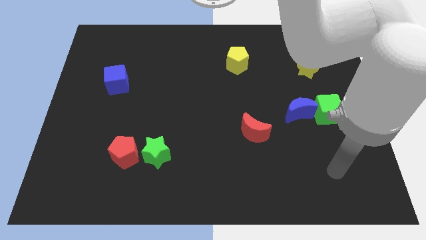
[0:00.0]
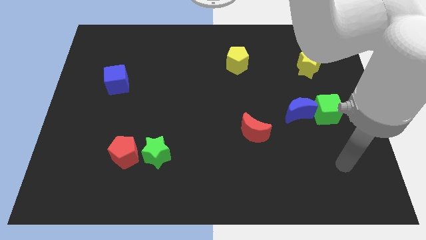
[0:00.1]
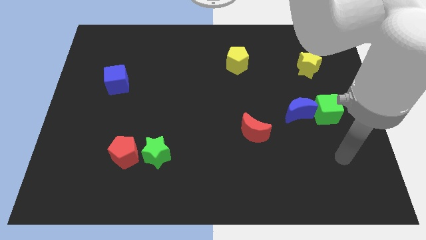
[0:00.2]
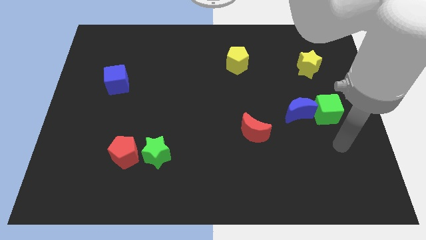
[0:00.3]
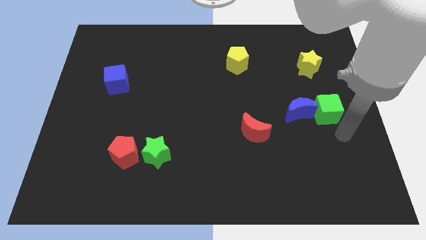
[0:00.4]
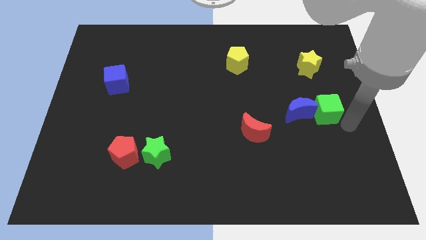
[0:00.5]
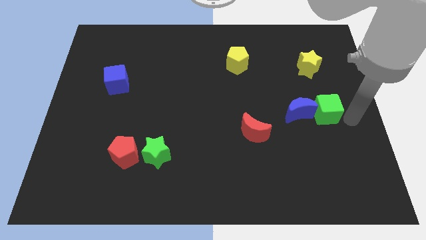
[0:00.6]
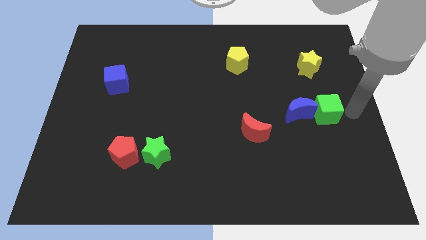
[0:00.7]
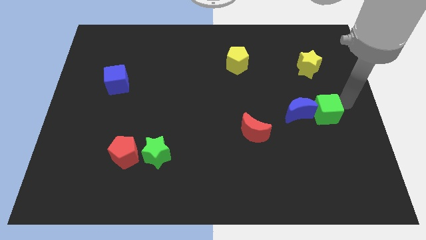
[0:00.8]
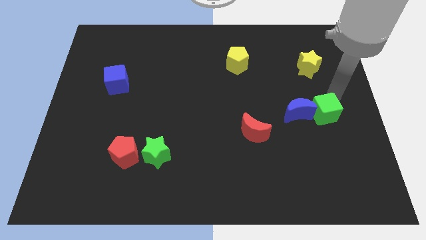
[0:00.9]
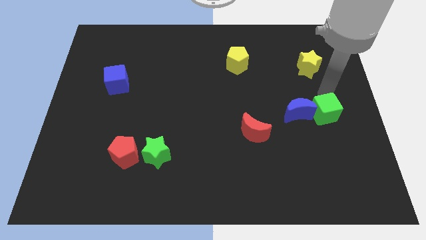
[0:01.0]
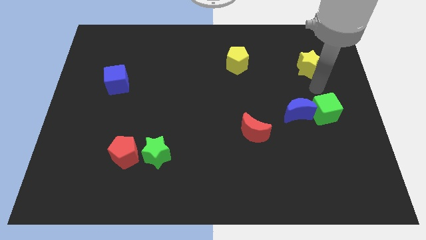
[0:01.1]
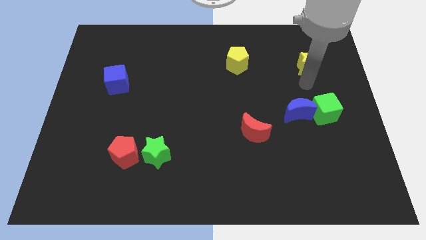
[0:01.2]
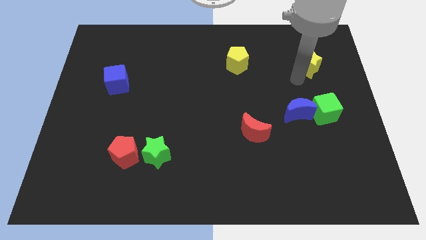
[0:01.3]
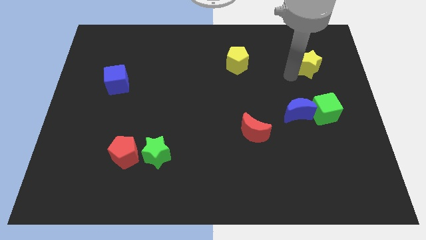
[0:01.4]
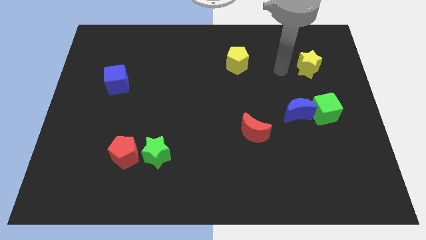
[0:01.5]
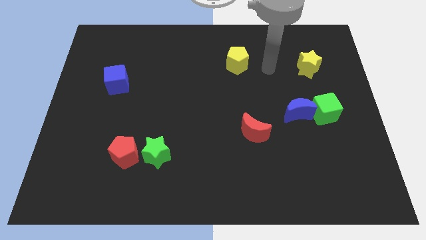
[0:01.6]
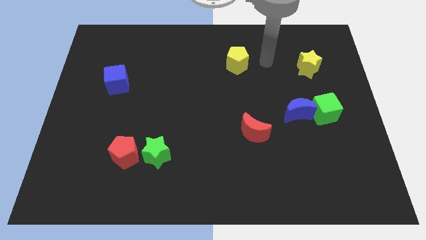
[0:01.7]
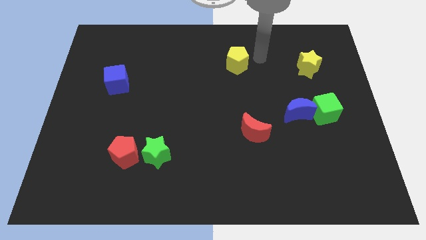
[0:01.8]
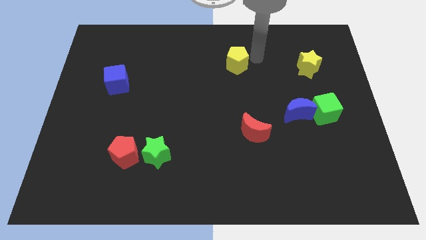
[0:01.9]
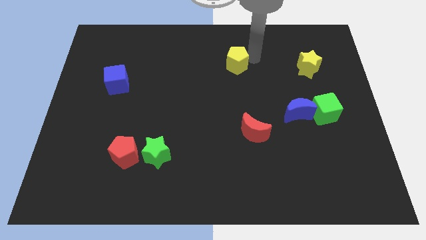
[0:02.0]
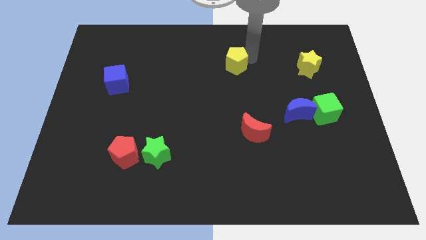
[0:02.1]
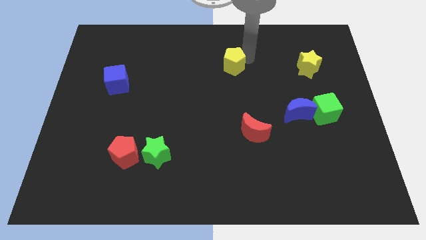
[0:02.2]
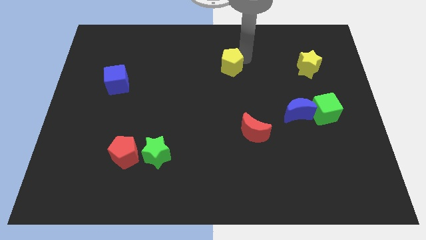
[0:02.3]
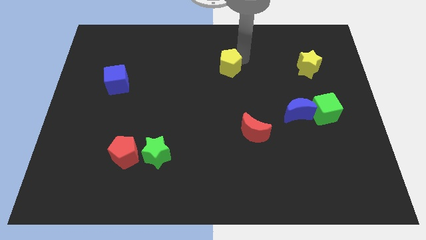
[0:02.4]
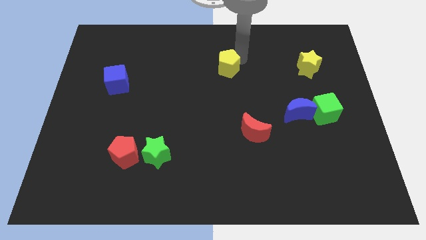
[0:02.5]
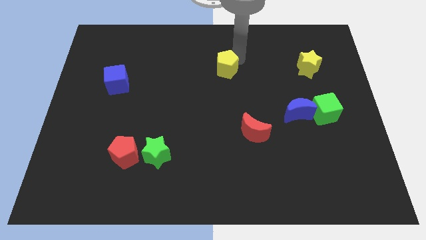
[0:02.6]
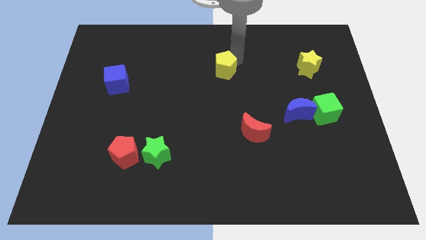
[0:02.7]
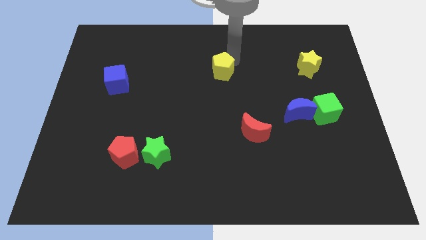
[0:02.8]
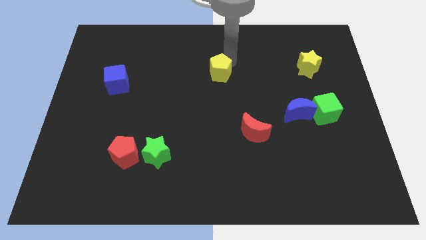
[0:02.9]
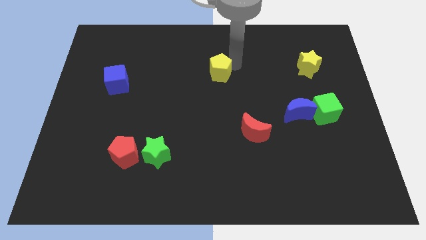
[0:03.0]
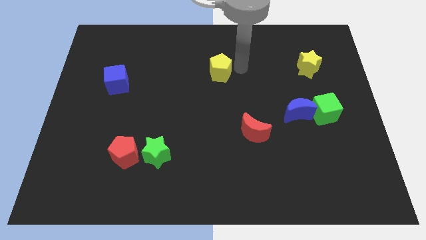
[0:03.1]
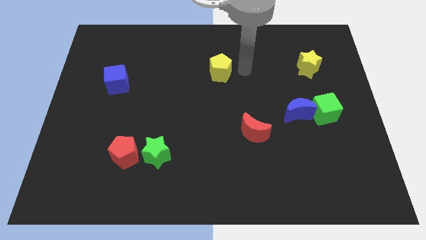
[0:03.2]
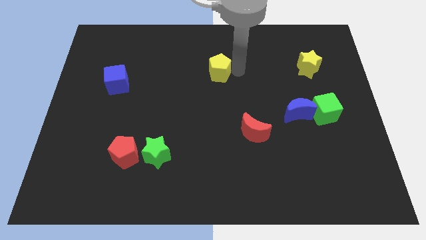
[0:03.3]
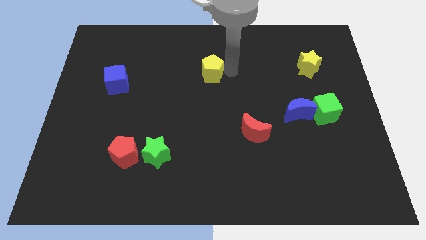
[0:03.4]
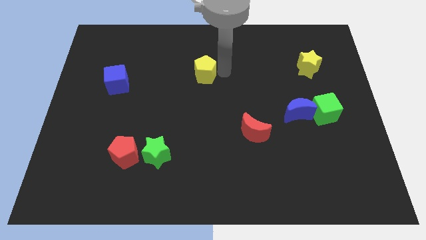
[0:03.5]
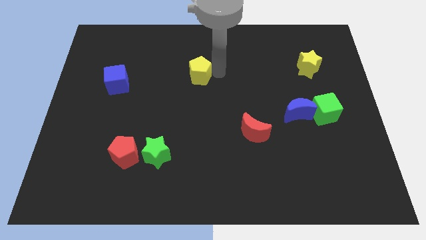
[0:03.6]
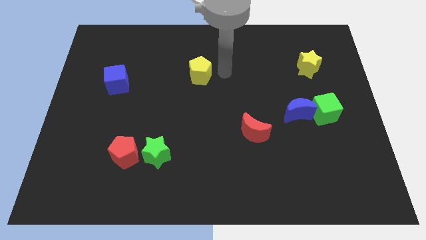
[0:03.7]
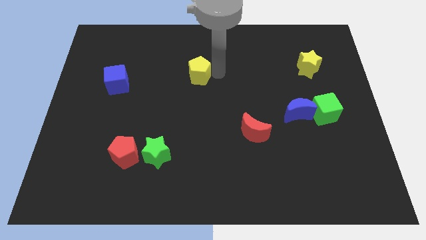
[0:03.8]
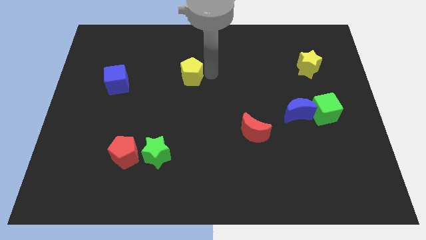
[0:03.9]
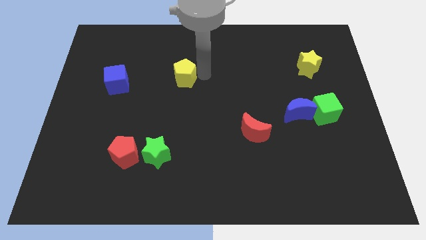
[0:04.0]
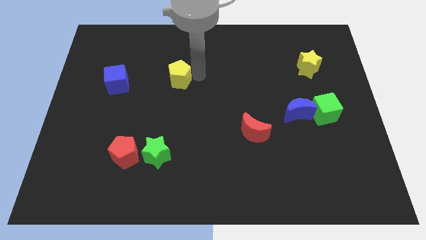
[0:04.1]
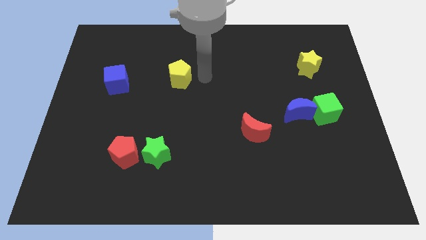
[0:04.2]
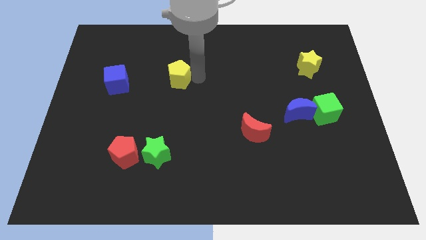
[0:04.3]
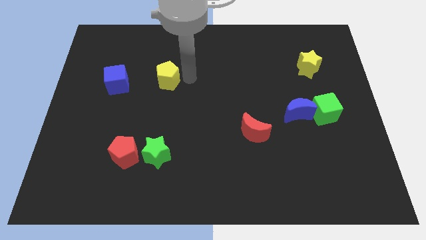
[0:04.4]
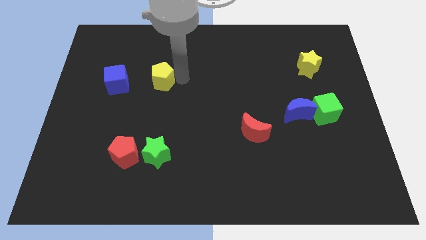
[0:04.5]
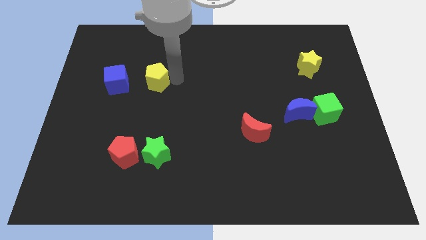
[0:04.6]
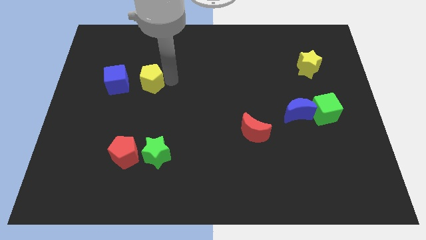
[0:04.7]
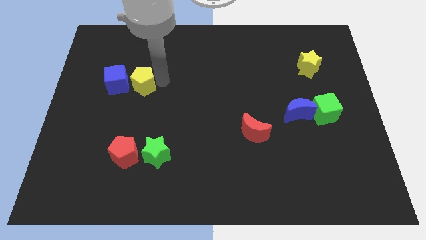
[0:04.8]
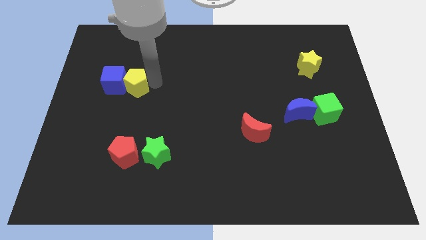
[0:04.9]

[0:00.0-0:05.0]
slide the yellow pentagon next to the blue cube

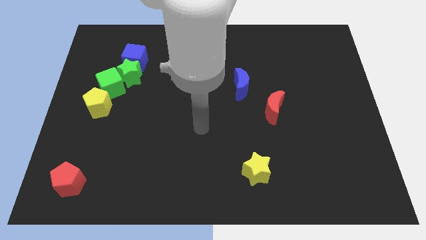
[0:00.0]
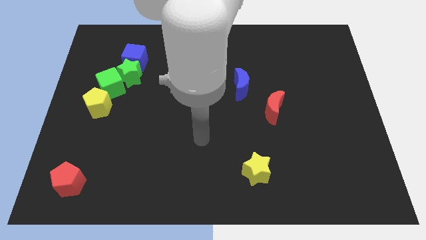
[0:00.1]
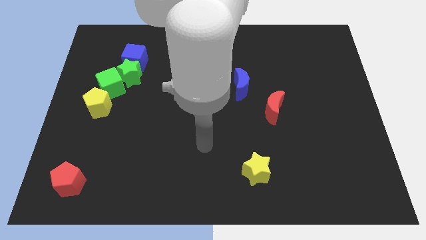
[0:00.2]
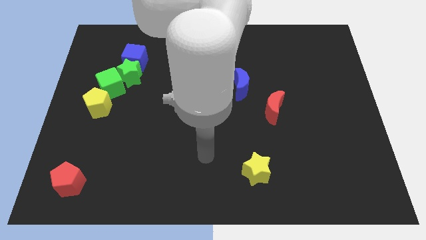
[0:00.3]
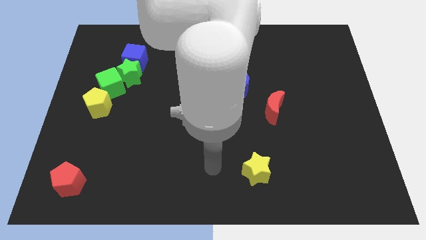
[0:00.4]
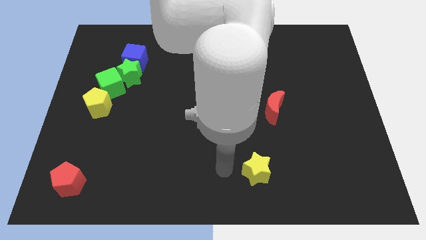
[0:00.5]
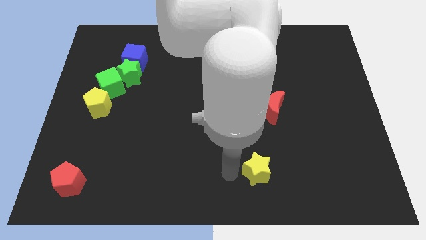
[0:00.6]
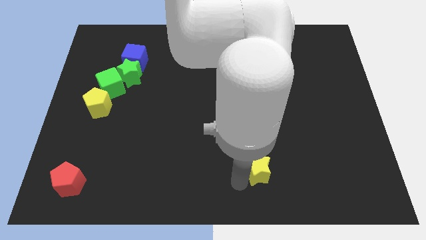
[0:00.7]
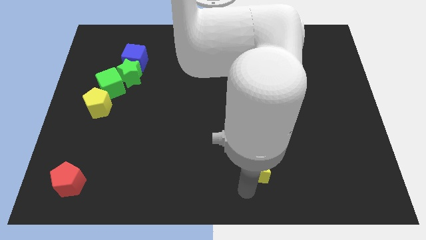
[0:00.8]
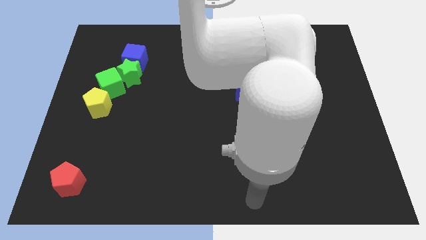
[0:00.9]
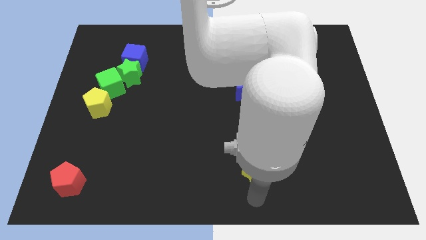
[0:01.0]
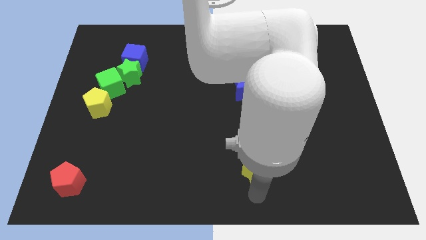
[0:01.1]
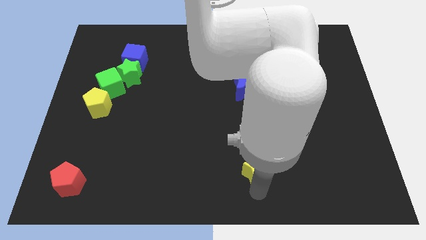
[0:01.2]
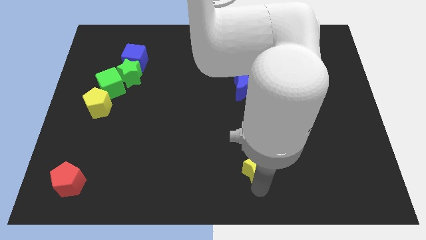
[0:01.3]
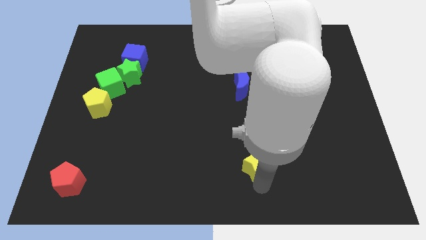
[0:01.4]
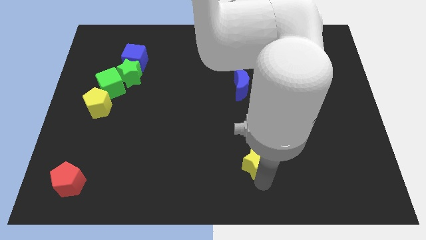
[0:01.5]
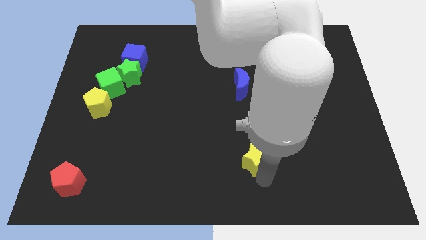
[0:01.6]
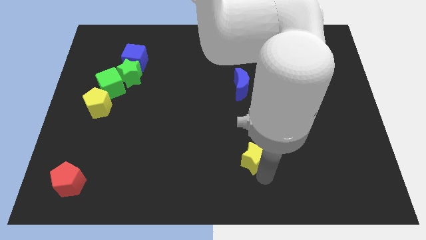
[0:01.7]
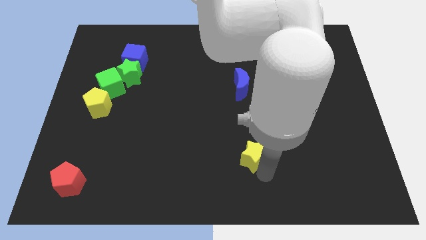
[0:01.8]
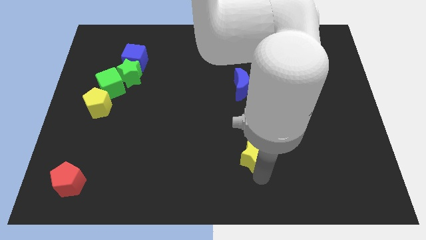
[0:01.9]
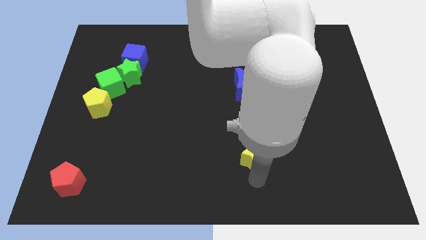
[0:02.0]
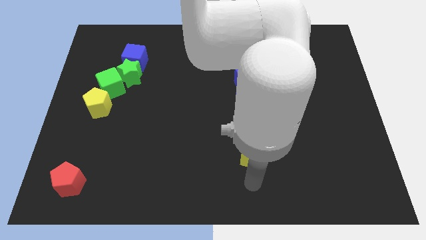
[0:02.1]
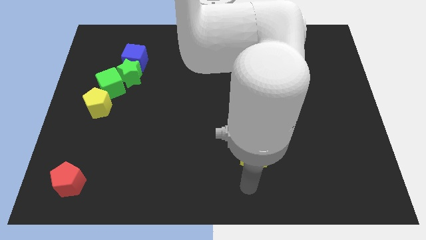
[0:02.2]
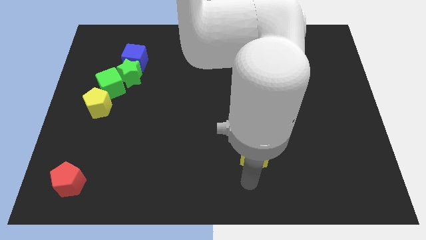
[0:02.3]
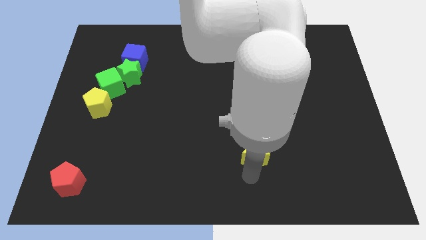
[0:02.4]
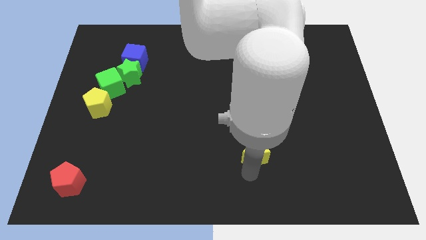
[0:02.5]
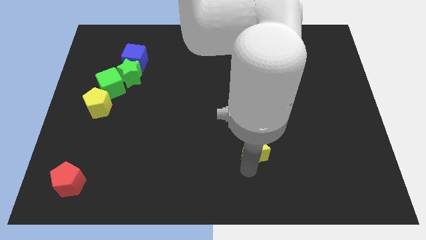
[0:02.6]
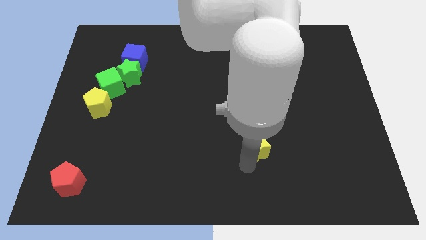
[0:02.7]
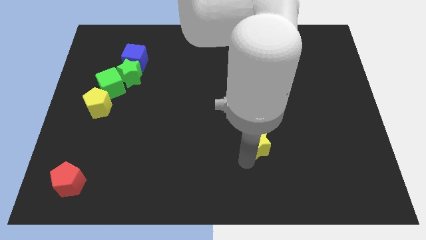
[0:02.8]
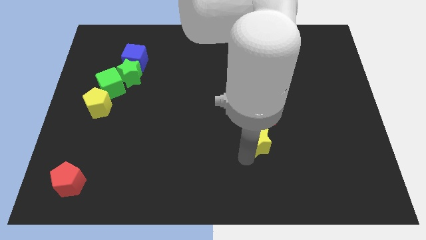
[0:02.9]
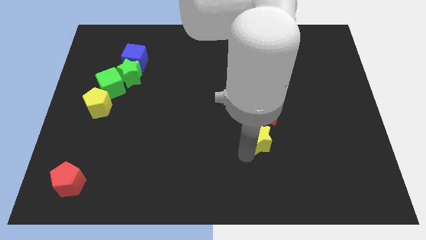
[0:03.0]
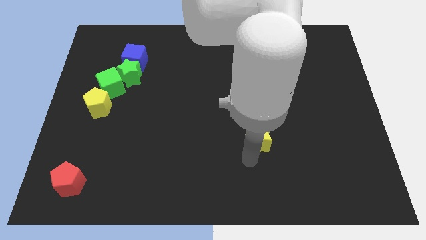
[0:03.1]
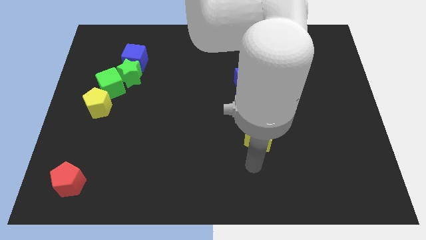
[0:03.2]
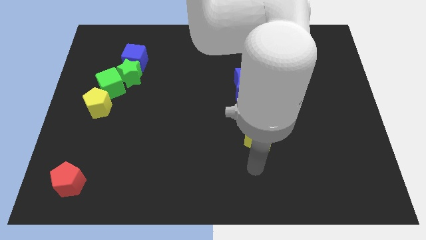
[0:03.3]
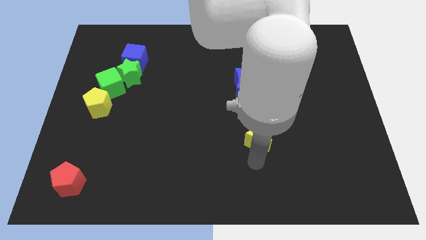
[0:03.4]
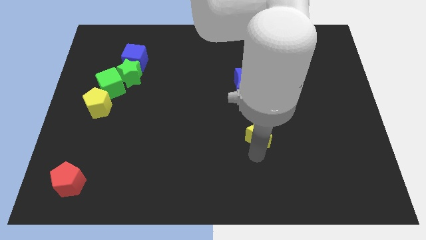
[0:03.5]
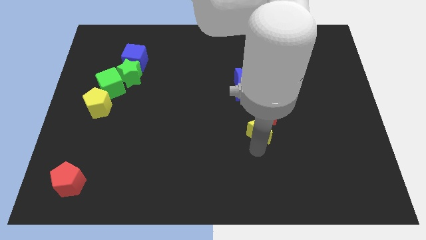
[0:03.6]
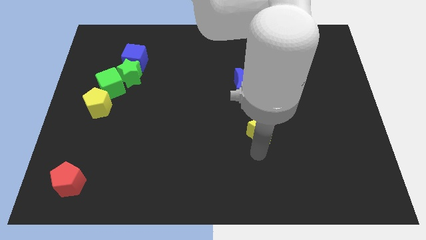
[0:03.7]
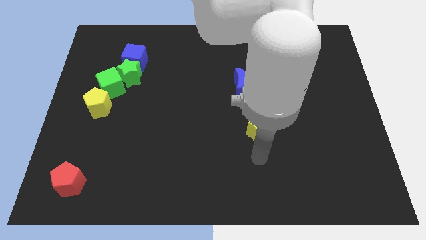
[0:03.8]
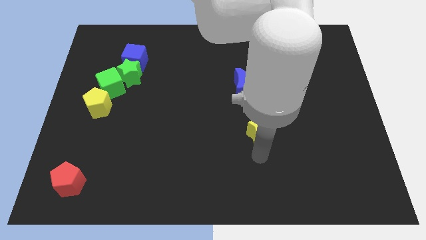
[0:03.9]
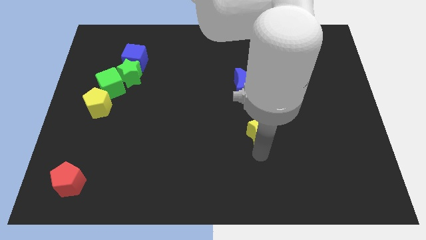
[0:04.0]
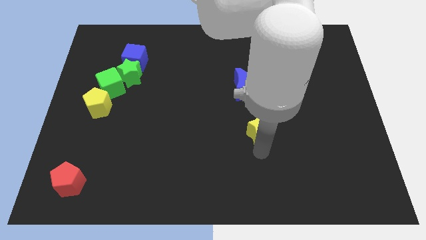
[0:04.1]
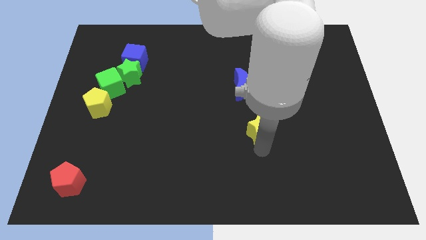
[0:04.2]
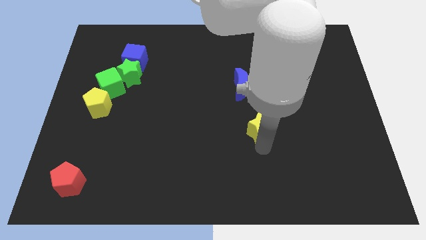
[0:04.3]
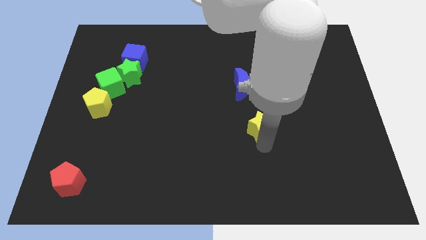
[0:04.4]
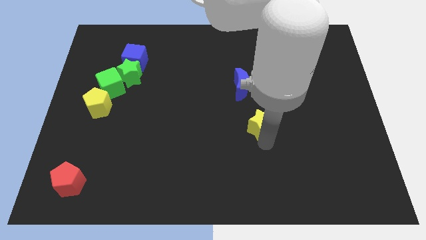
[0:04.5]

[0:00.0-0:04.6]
put the yellow star close to the red moon
